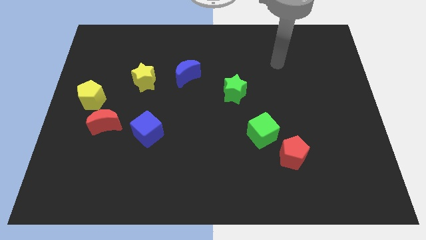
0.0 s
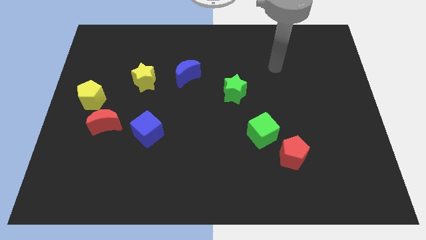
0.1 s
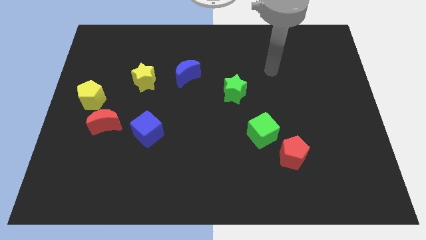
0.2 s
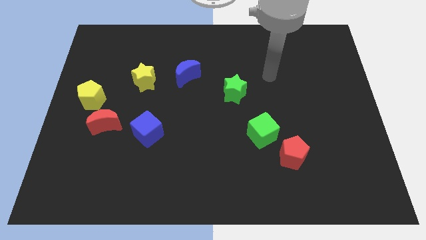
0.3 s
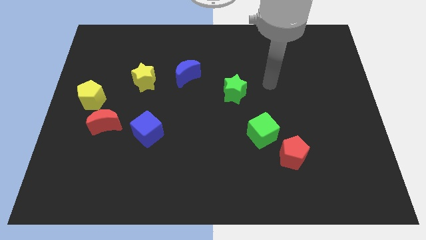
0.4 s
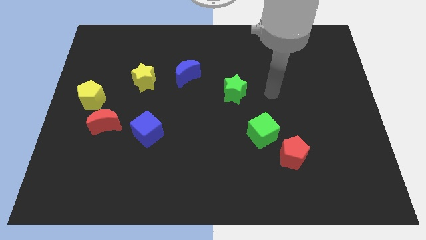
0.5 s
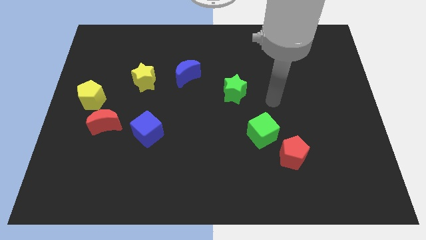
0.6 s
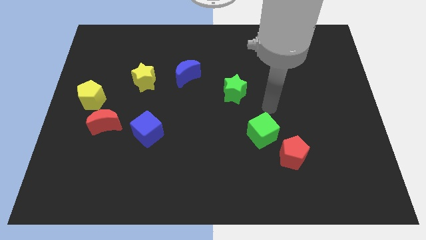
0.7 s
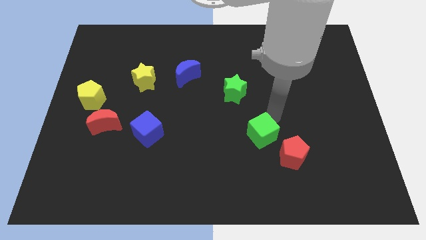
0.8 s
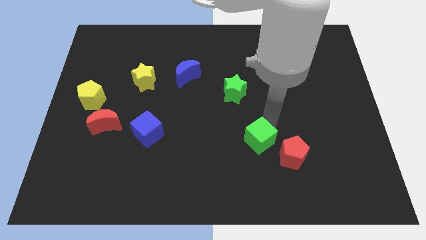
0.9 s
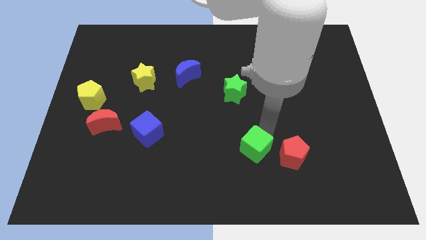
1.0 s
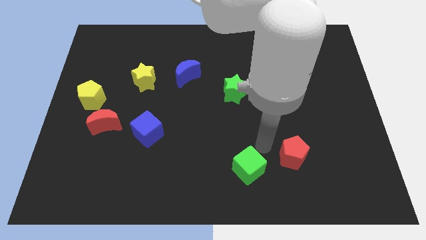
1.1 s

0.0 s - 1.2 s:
move the red pentagon away from the green cube

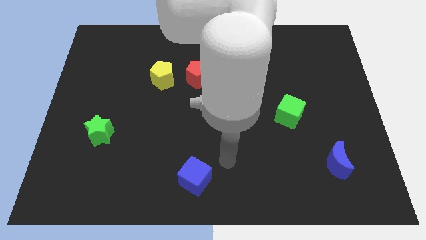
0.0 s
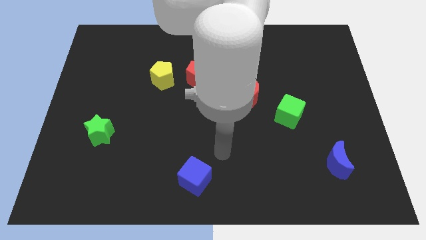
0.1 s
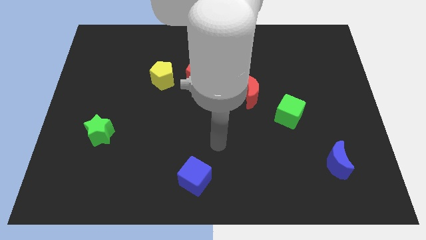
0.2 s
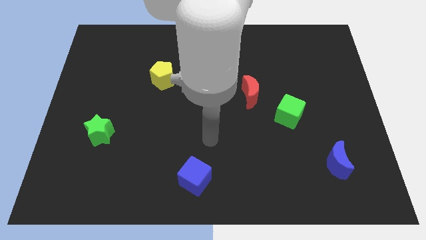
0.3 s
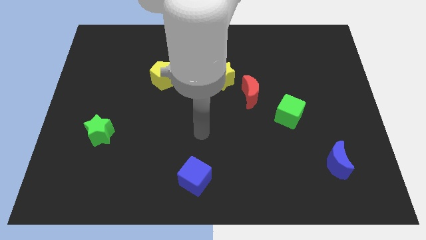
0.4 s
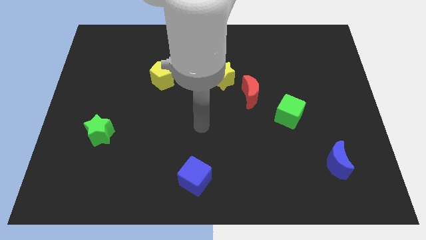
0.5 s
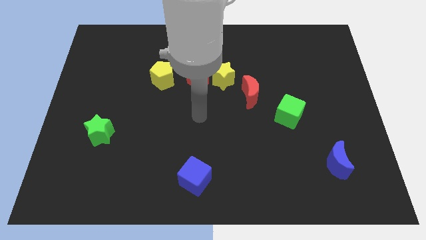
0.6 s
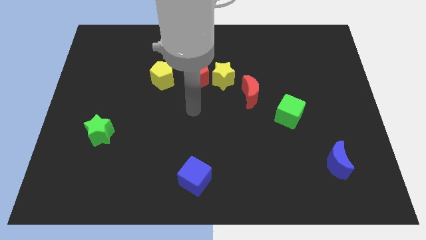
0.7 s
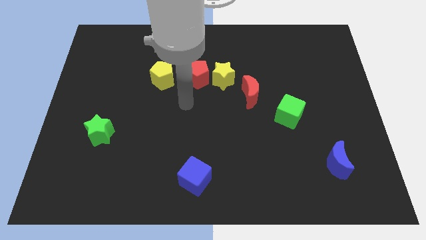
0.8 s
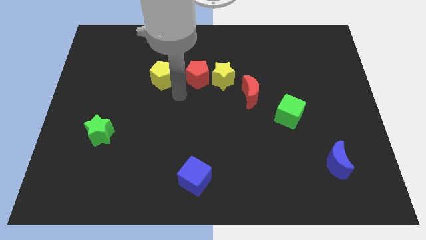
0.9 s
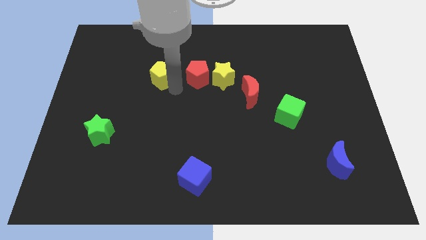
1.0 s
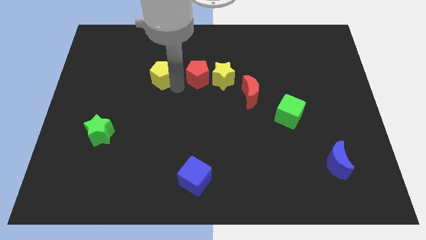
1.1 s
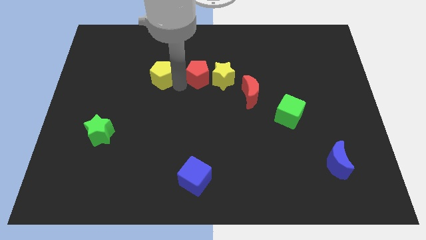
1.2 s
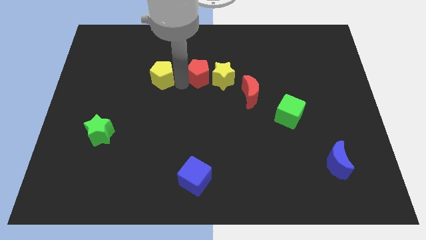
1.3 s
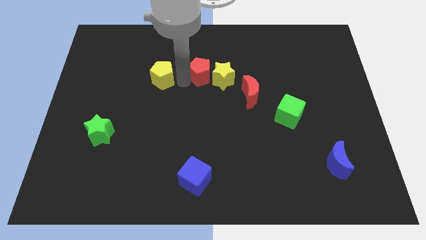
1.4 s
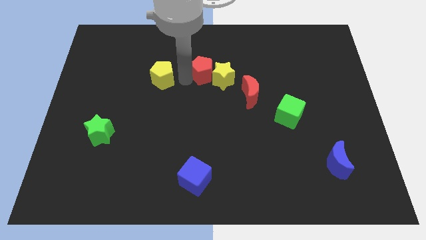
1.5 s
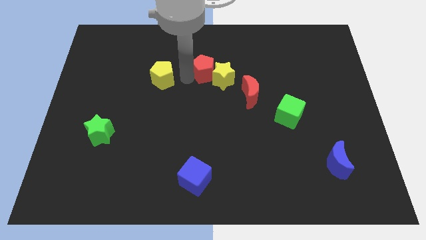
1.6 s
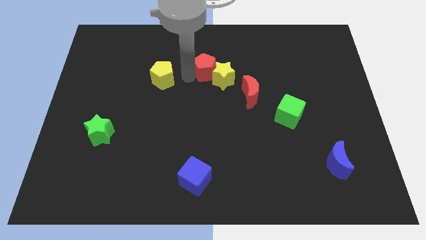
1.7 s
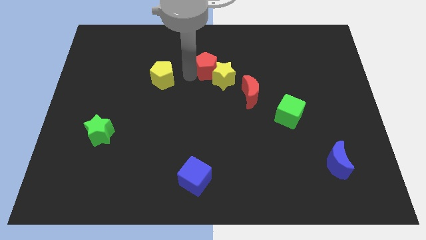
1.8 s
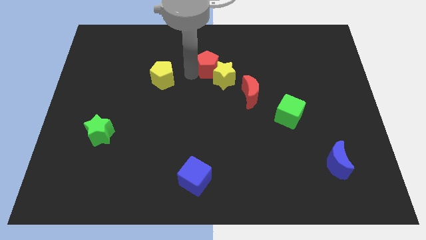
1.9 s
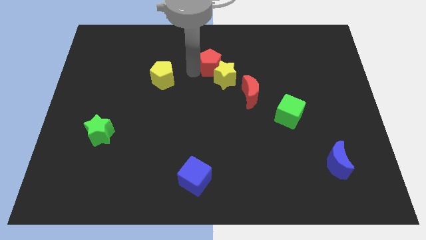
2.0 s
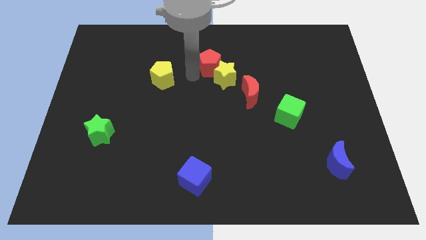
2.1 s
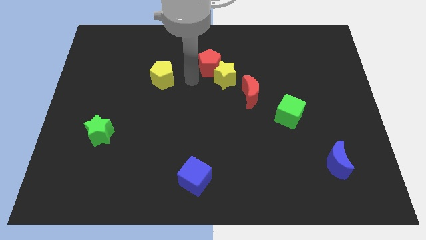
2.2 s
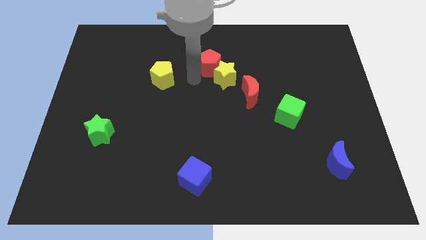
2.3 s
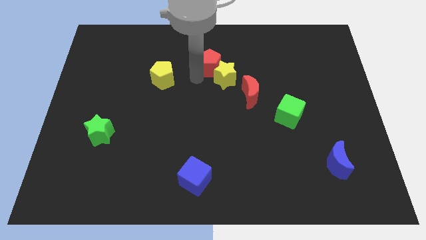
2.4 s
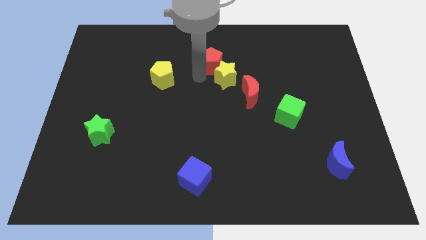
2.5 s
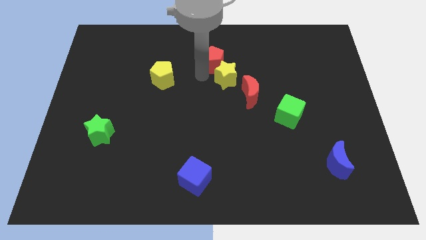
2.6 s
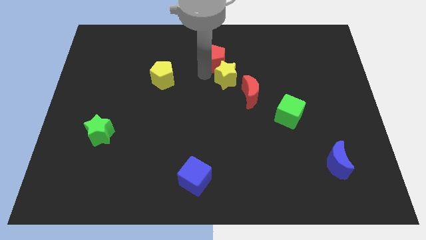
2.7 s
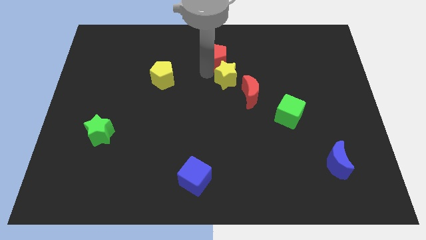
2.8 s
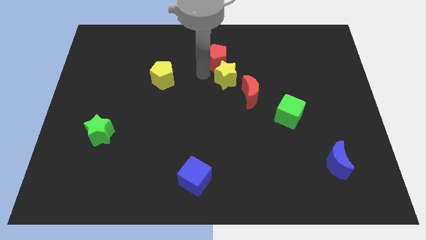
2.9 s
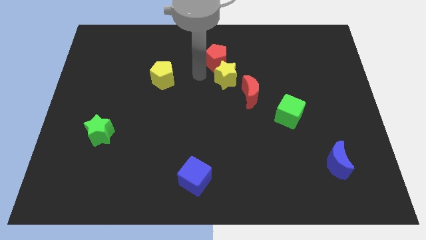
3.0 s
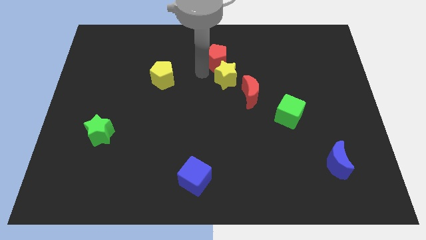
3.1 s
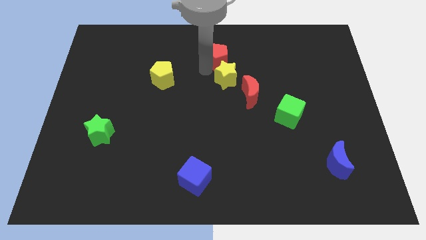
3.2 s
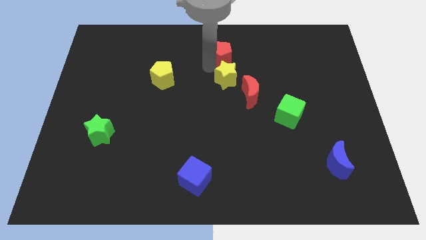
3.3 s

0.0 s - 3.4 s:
separate the red pentagon from the yellow star and yellow pentagon

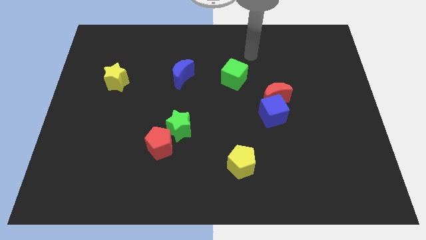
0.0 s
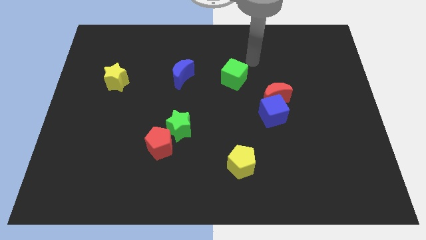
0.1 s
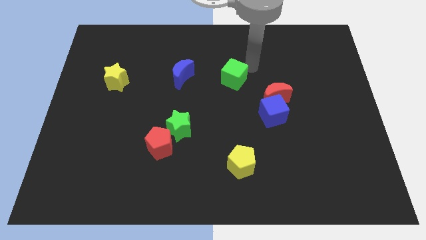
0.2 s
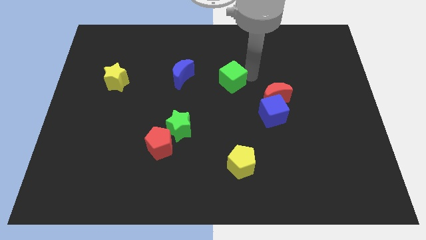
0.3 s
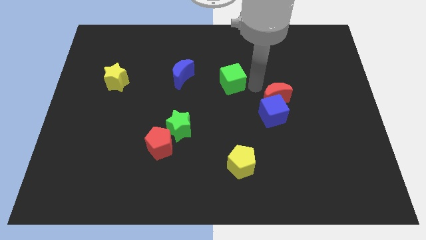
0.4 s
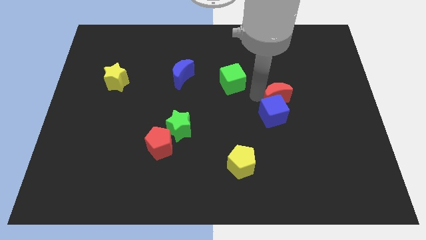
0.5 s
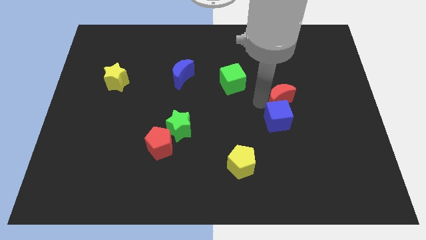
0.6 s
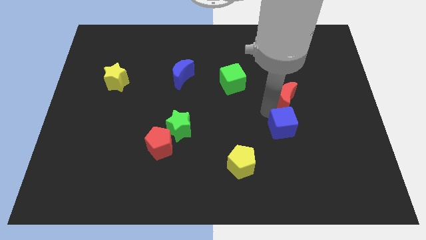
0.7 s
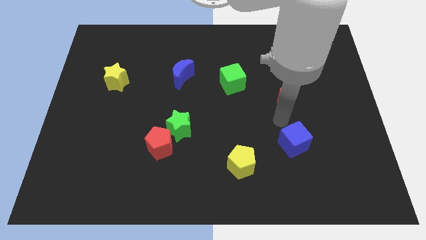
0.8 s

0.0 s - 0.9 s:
move the red moon away from the blue cube

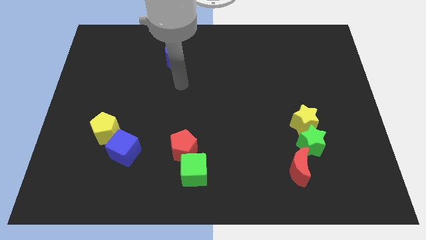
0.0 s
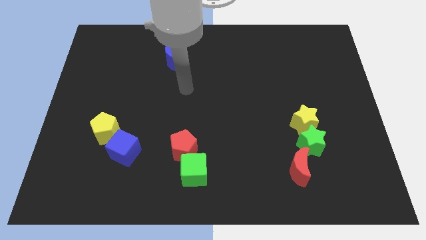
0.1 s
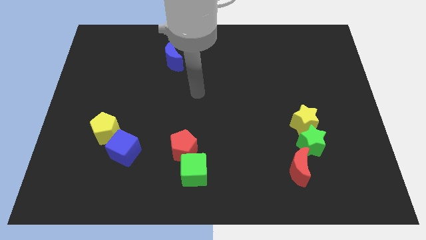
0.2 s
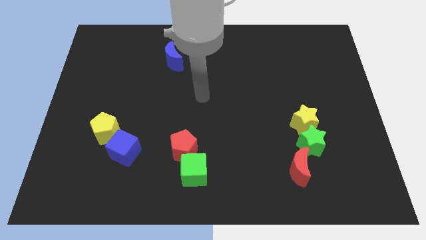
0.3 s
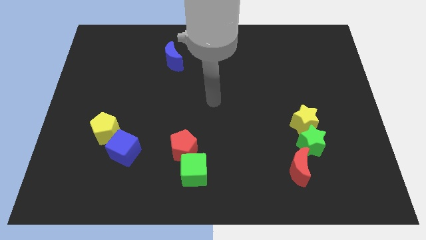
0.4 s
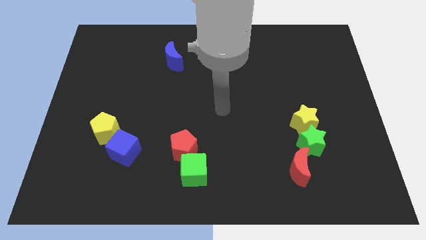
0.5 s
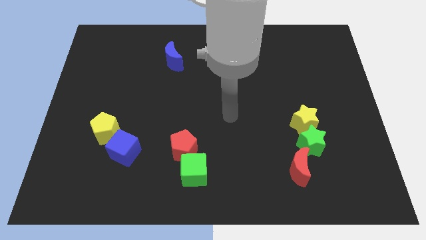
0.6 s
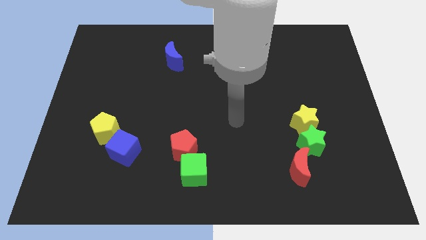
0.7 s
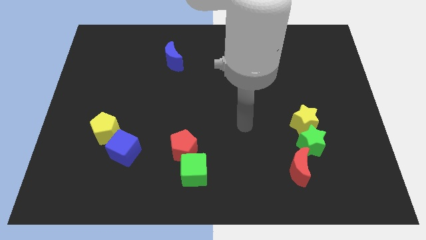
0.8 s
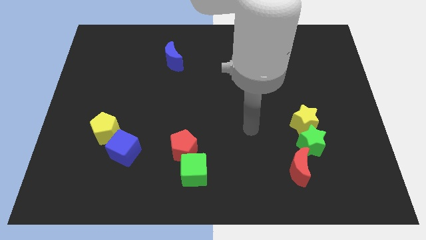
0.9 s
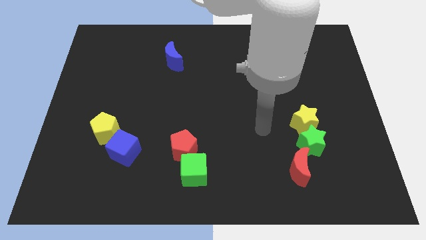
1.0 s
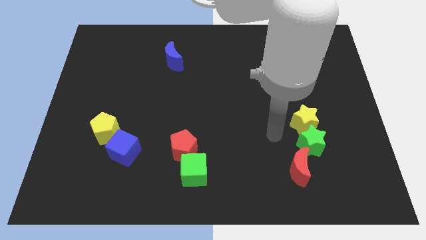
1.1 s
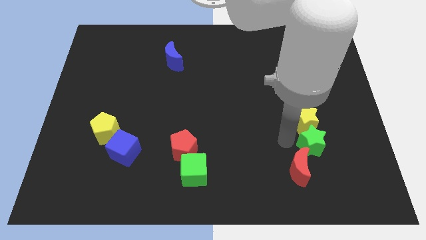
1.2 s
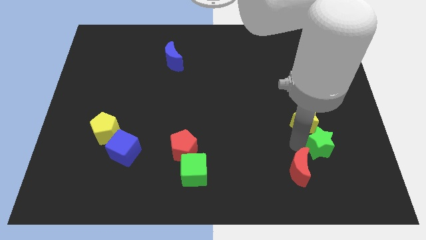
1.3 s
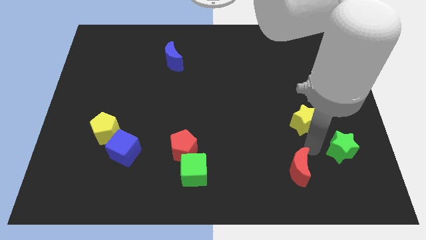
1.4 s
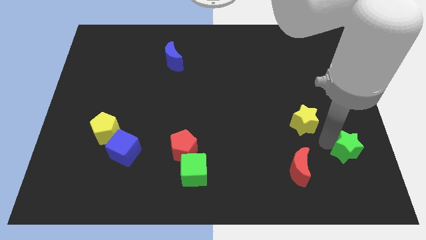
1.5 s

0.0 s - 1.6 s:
pull the yellow star apart from the green star

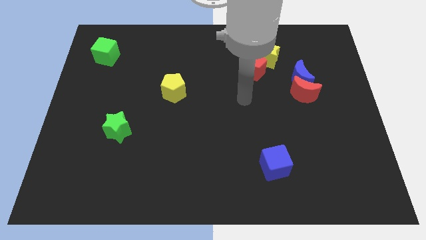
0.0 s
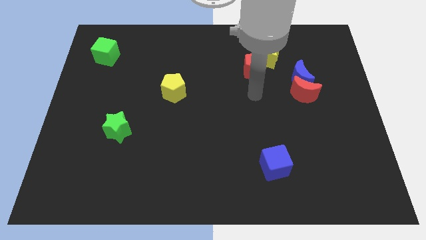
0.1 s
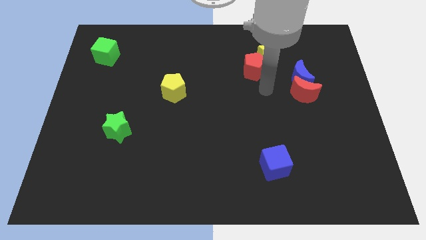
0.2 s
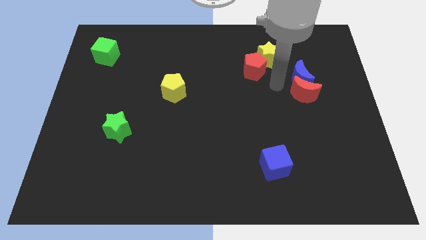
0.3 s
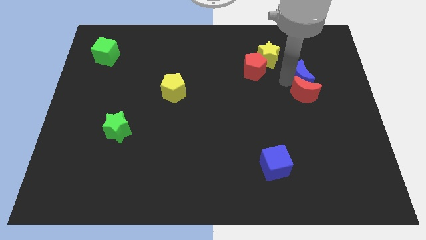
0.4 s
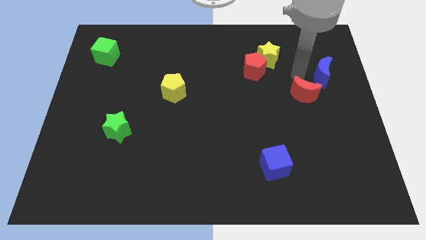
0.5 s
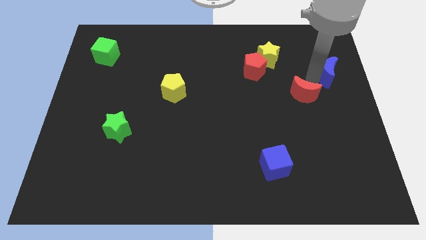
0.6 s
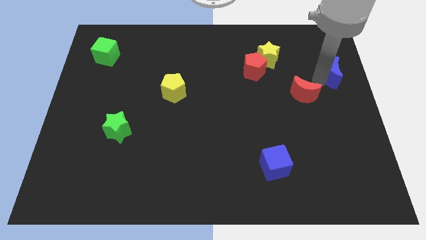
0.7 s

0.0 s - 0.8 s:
move the red moon away from the blue moon

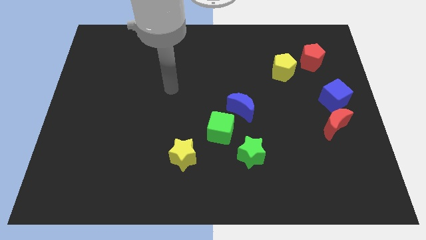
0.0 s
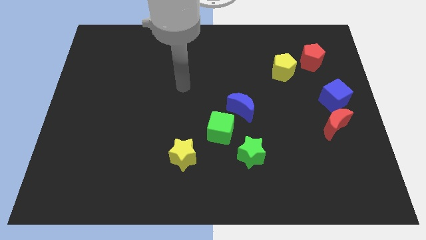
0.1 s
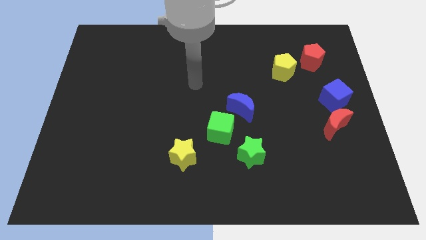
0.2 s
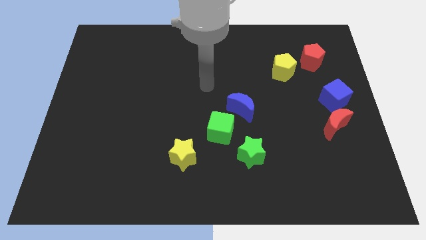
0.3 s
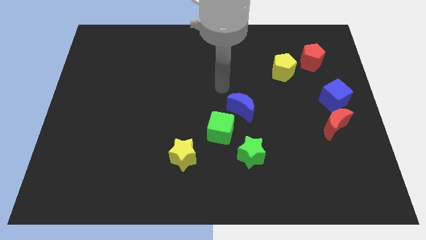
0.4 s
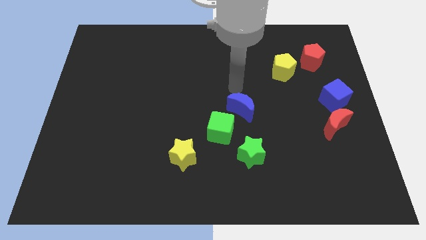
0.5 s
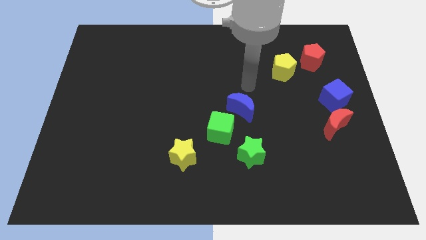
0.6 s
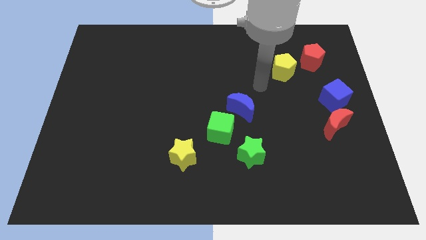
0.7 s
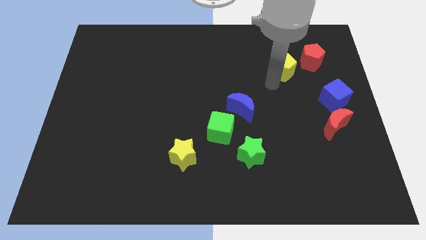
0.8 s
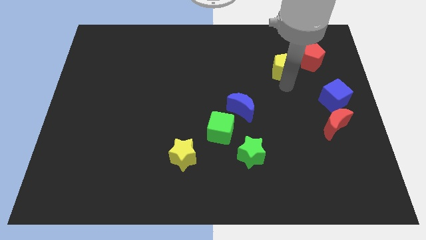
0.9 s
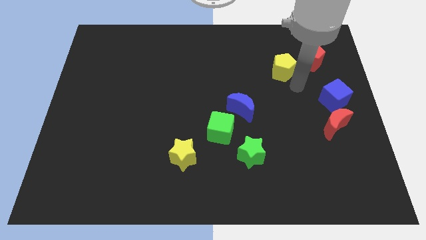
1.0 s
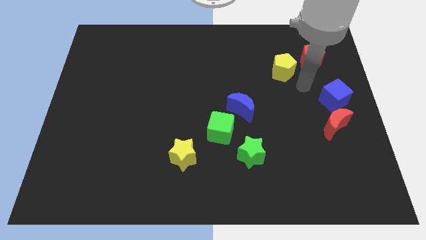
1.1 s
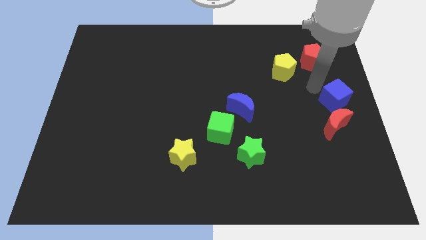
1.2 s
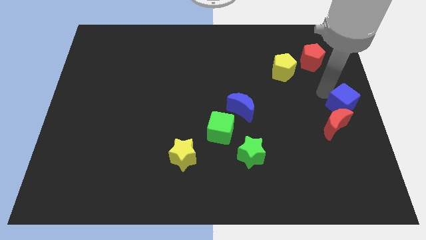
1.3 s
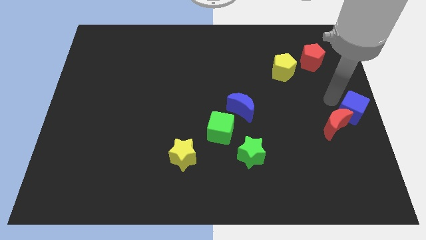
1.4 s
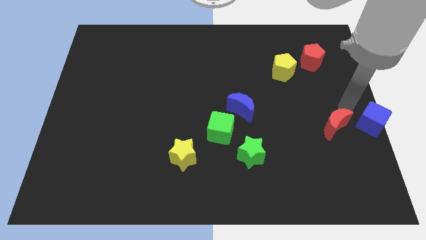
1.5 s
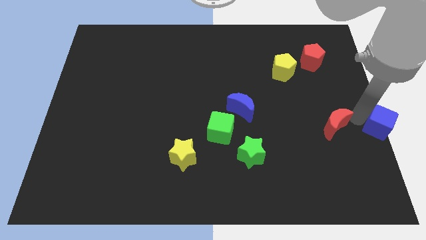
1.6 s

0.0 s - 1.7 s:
pull the red moon apart from the blue cube
